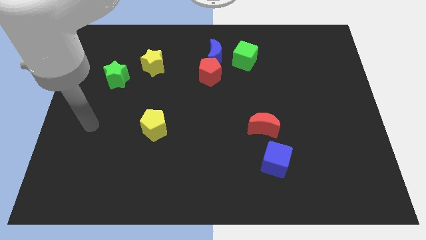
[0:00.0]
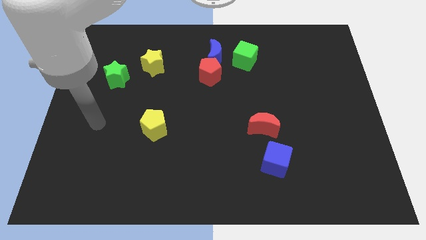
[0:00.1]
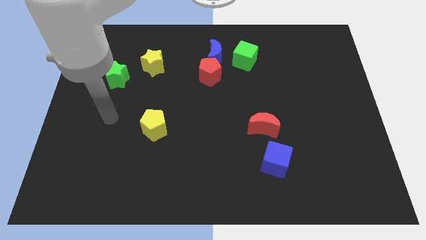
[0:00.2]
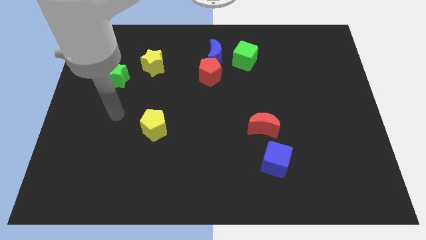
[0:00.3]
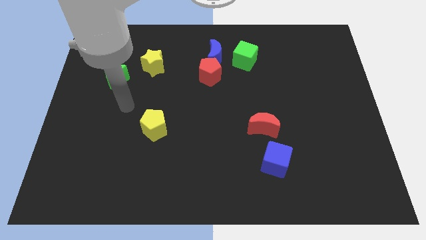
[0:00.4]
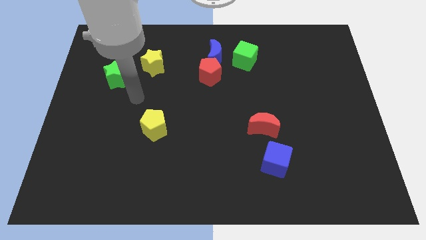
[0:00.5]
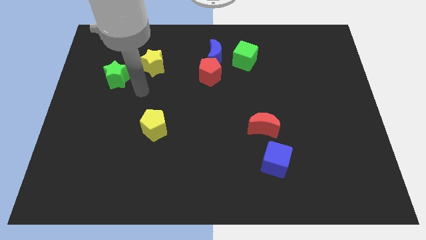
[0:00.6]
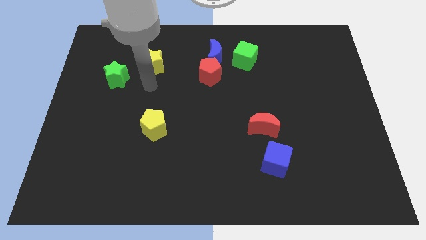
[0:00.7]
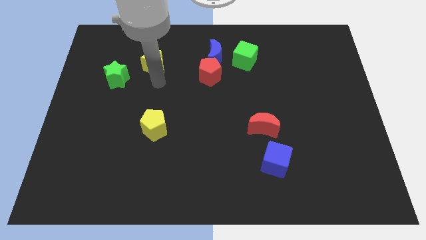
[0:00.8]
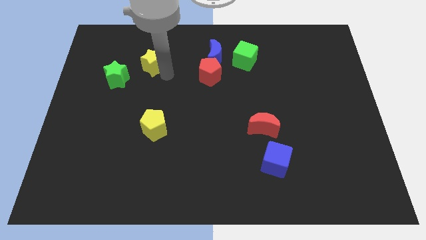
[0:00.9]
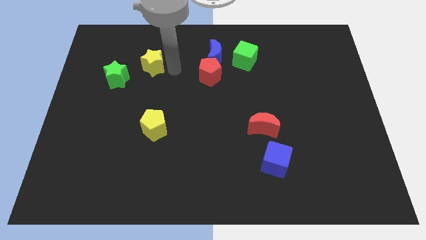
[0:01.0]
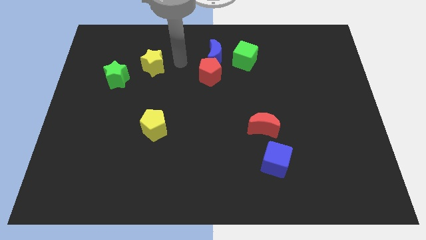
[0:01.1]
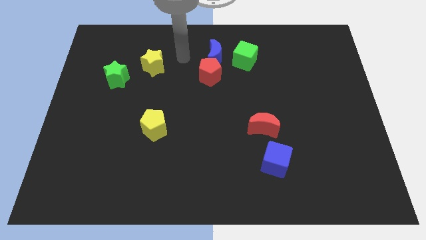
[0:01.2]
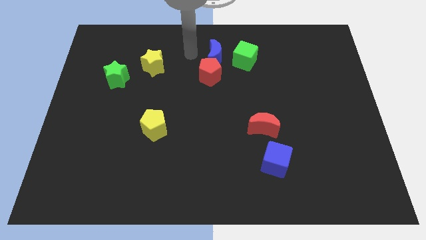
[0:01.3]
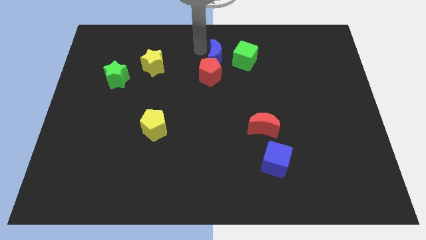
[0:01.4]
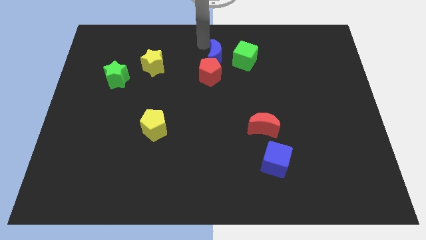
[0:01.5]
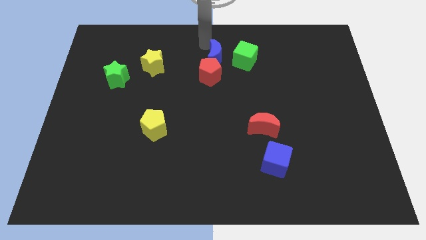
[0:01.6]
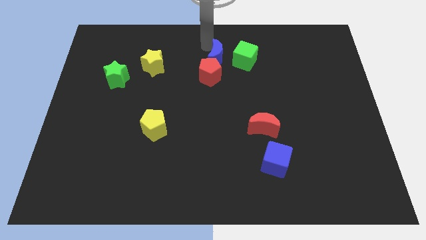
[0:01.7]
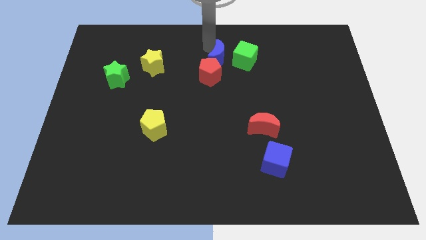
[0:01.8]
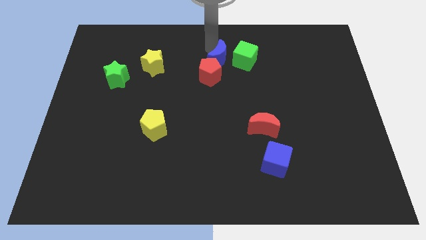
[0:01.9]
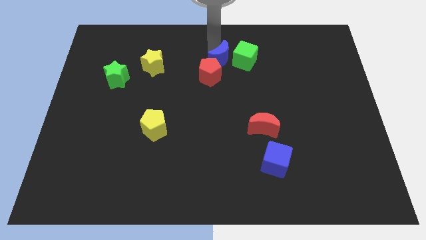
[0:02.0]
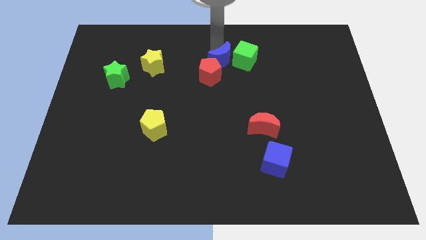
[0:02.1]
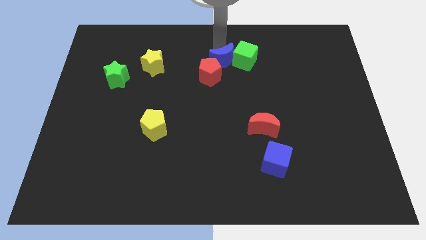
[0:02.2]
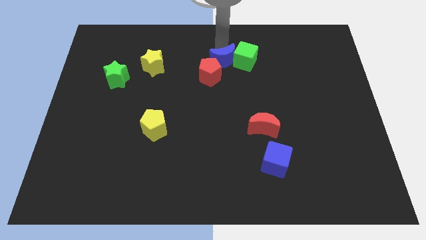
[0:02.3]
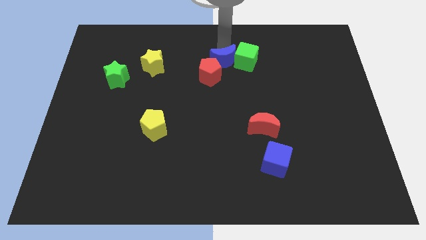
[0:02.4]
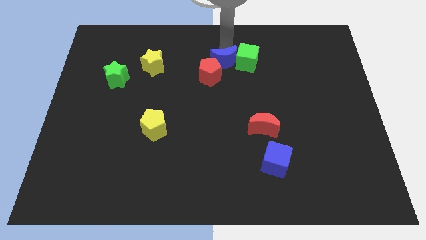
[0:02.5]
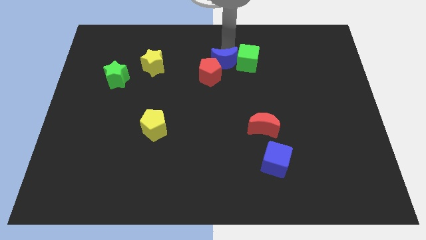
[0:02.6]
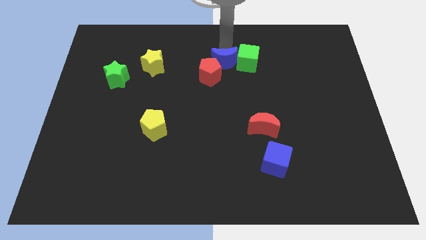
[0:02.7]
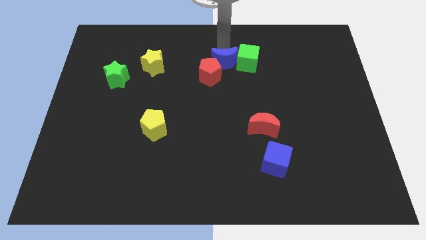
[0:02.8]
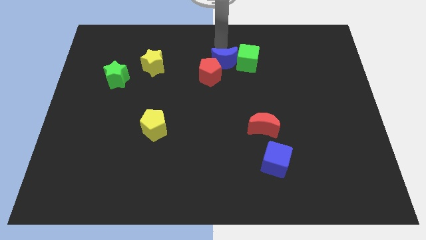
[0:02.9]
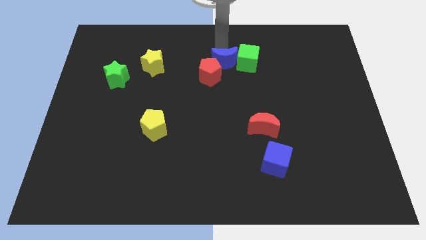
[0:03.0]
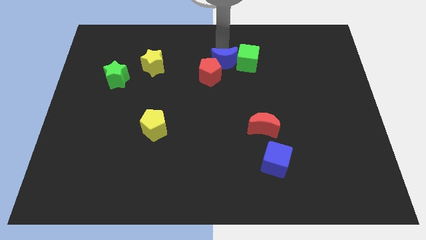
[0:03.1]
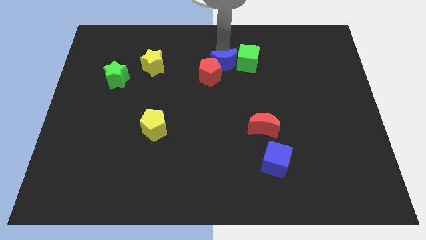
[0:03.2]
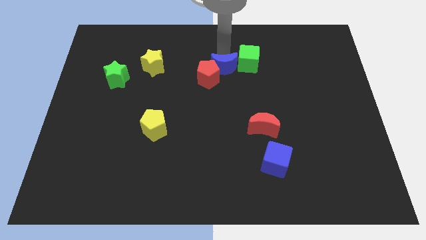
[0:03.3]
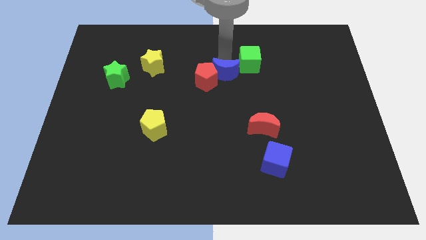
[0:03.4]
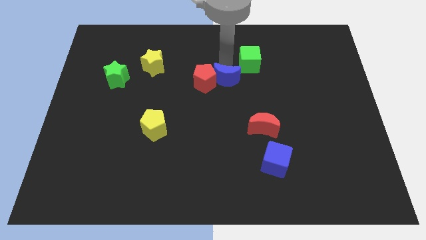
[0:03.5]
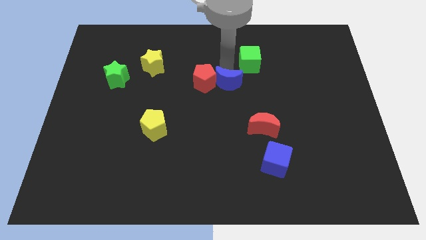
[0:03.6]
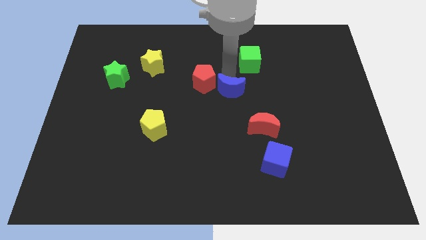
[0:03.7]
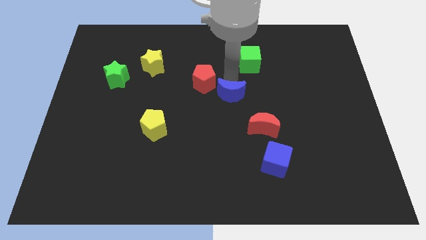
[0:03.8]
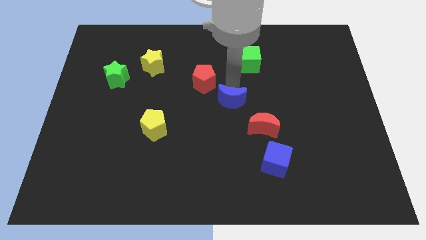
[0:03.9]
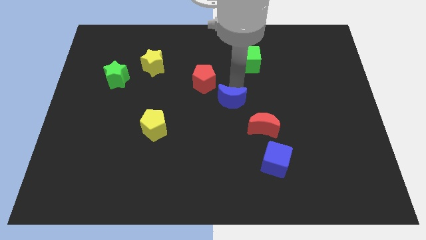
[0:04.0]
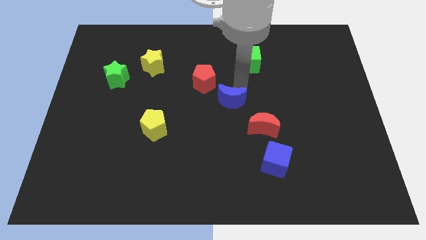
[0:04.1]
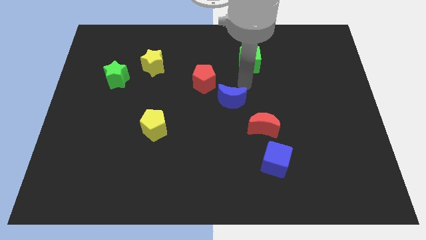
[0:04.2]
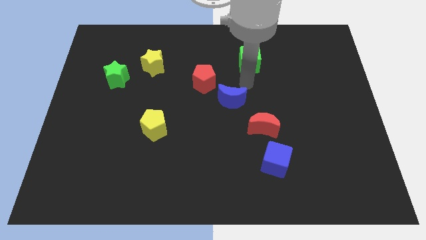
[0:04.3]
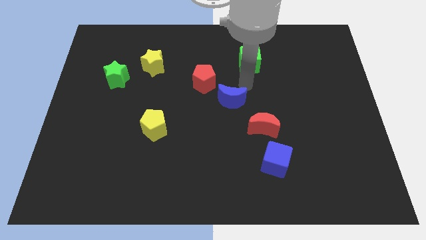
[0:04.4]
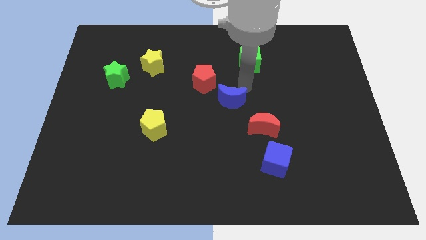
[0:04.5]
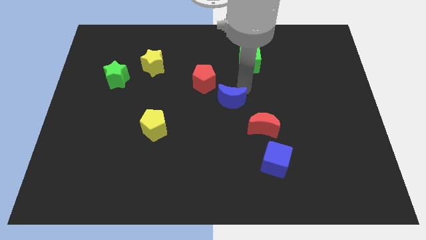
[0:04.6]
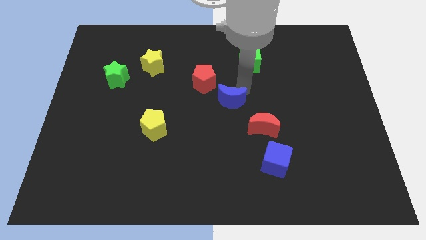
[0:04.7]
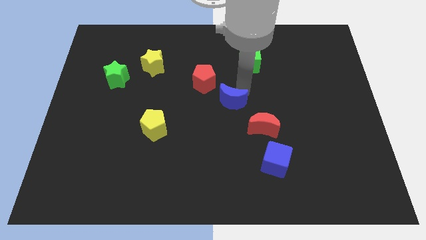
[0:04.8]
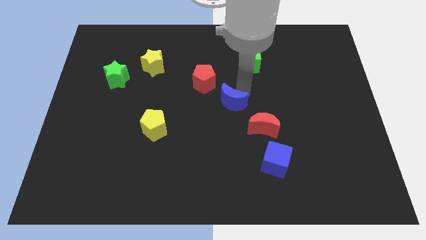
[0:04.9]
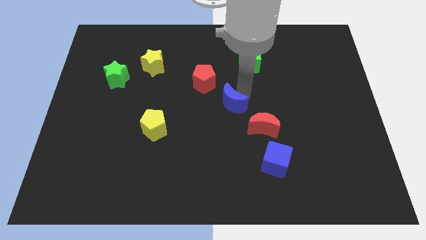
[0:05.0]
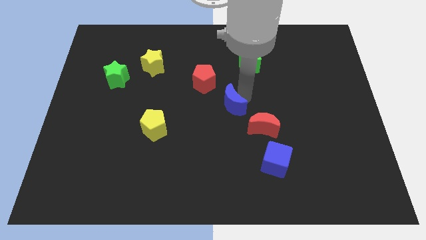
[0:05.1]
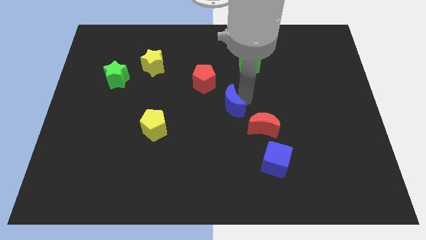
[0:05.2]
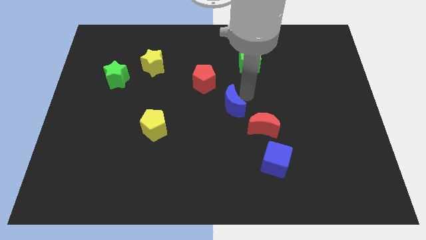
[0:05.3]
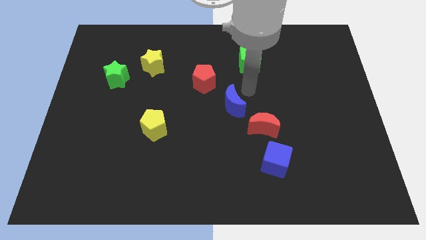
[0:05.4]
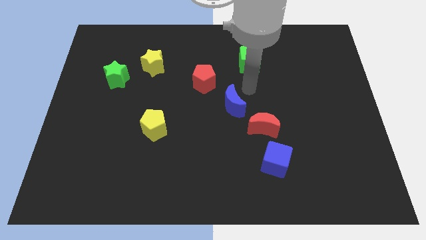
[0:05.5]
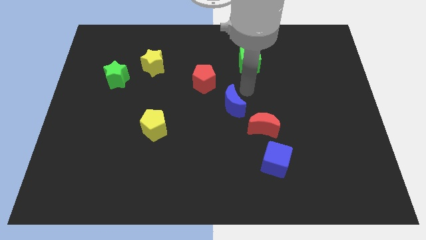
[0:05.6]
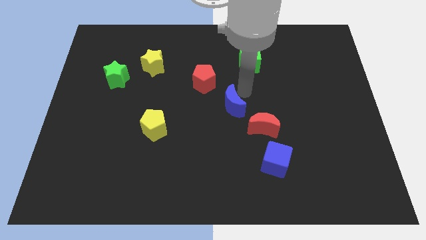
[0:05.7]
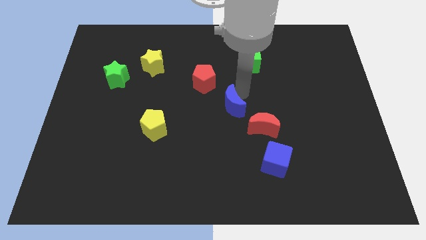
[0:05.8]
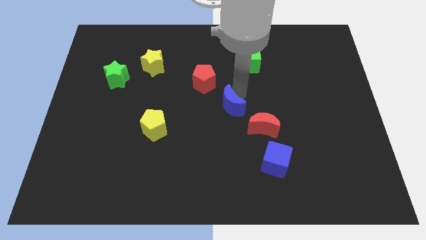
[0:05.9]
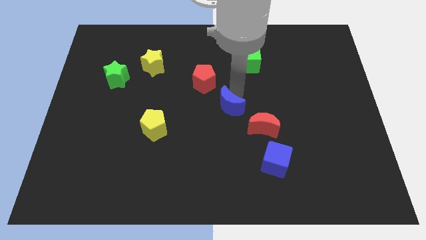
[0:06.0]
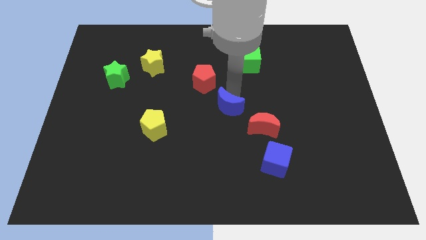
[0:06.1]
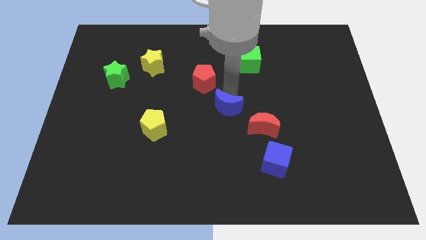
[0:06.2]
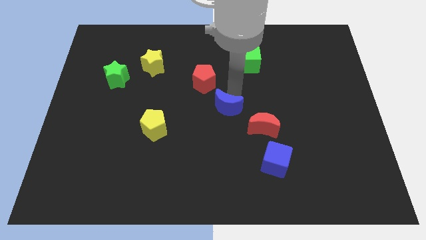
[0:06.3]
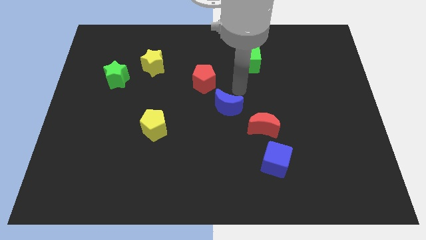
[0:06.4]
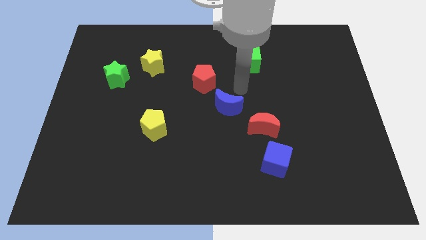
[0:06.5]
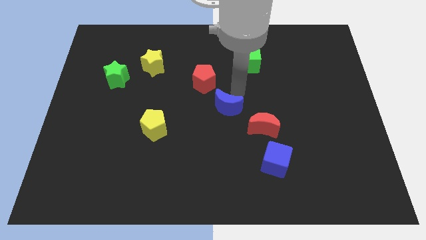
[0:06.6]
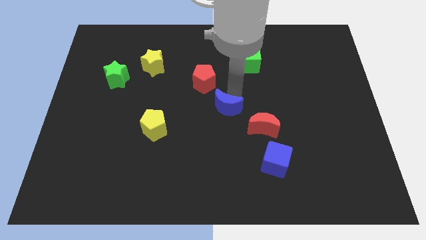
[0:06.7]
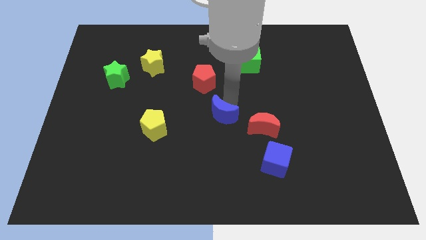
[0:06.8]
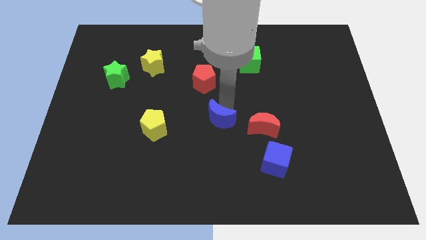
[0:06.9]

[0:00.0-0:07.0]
push the blue moon down

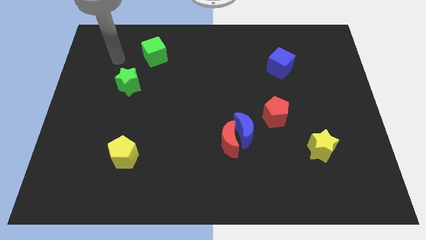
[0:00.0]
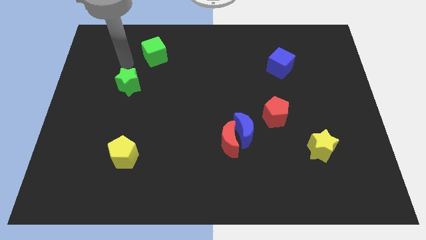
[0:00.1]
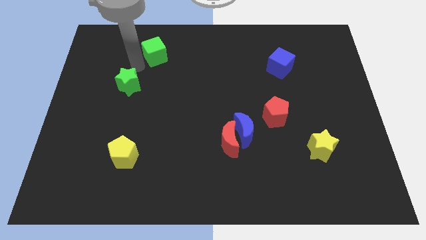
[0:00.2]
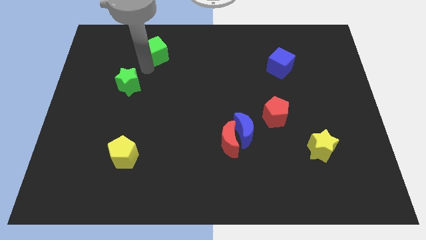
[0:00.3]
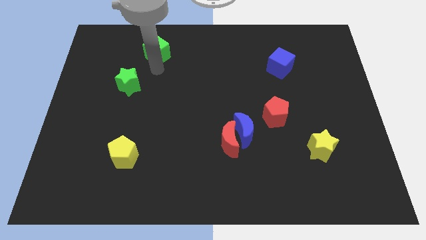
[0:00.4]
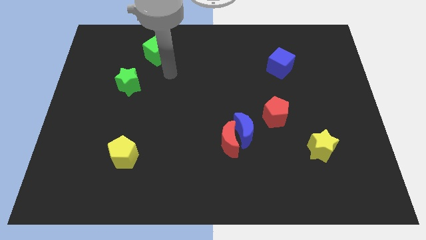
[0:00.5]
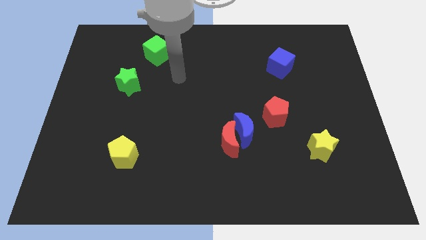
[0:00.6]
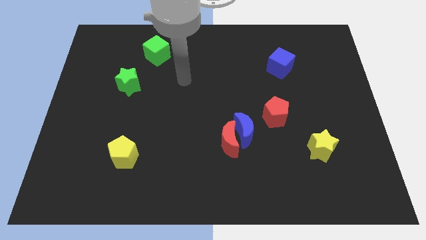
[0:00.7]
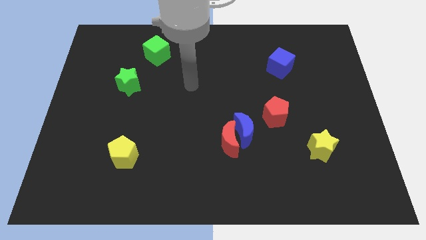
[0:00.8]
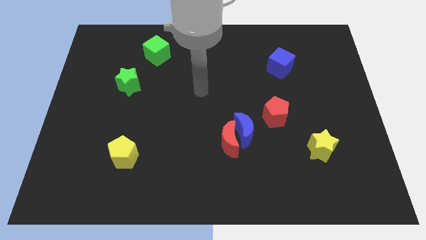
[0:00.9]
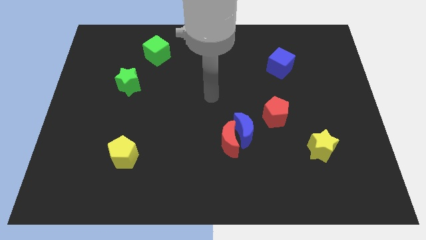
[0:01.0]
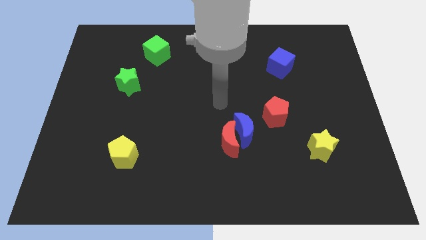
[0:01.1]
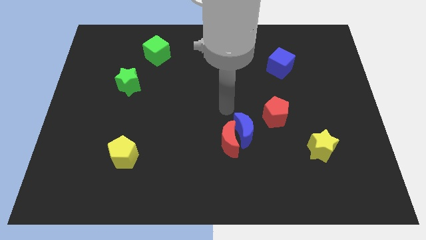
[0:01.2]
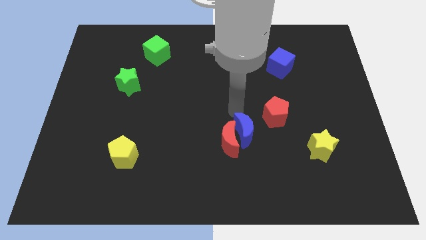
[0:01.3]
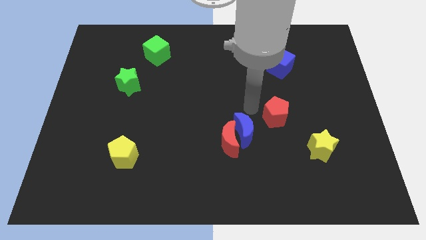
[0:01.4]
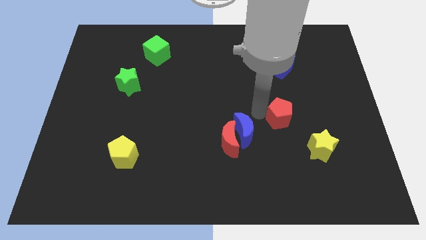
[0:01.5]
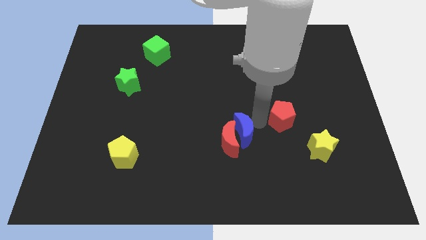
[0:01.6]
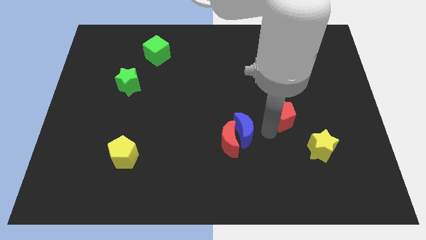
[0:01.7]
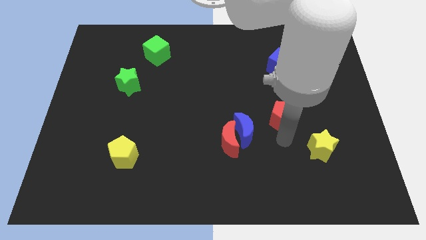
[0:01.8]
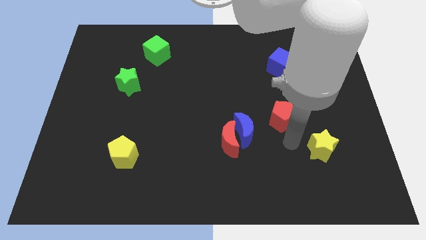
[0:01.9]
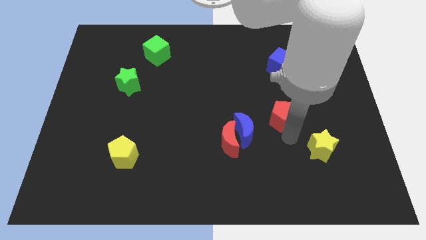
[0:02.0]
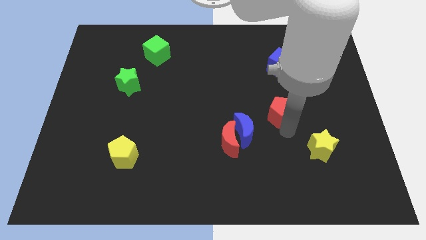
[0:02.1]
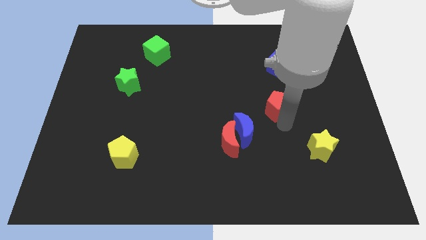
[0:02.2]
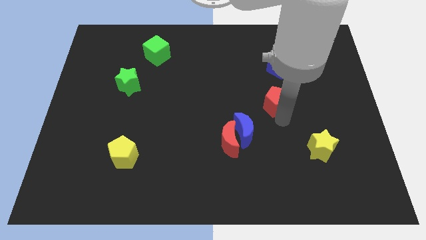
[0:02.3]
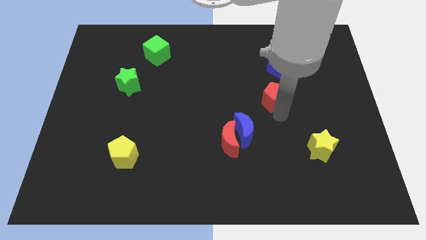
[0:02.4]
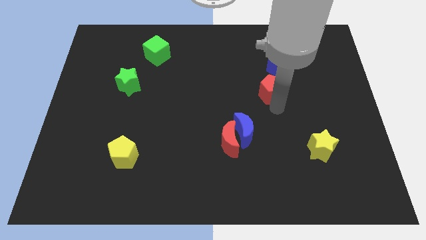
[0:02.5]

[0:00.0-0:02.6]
move the red pentagon up a little bit
